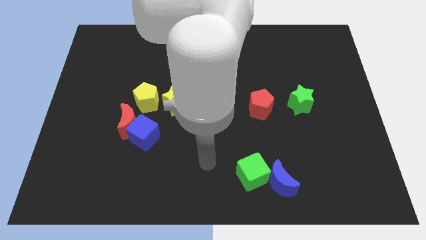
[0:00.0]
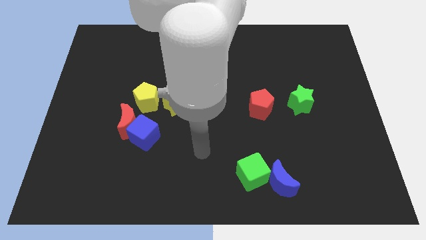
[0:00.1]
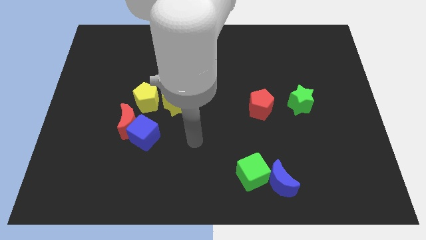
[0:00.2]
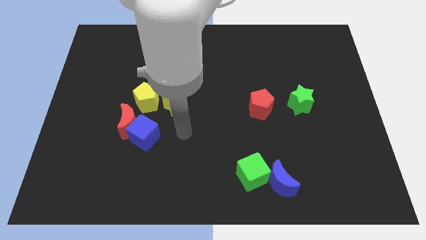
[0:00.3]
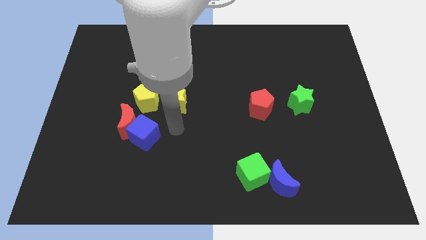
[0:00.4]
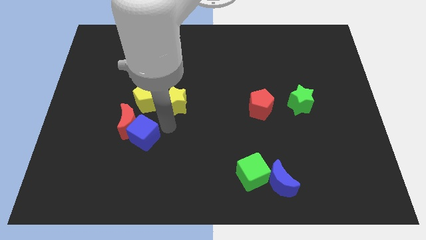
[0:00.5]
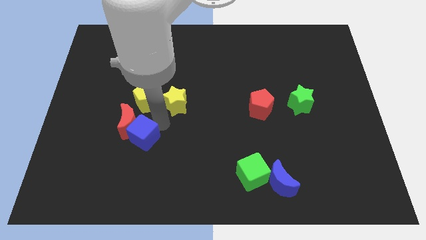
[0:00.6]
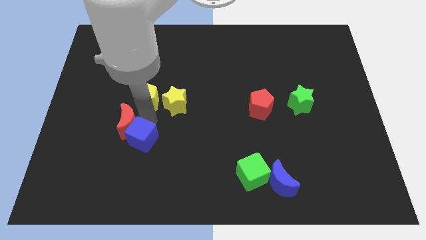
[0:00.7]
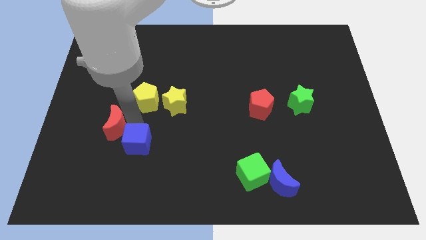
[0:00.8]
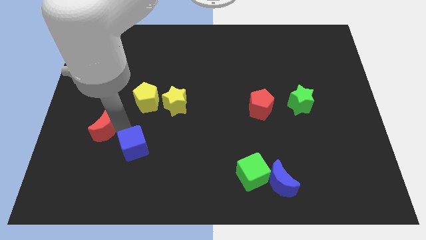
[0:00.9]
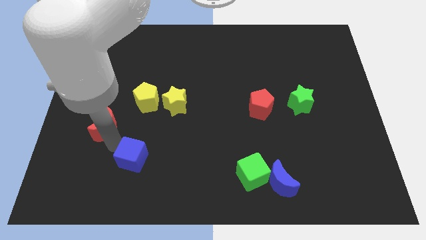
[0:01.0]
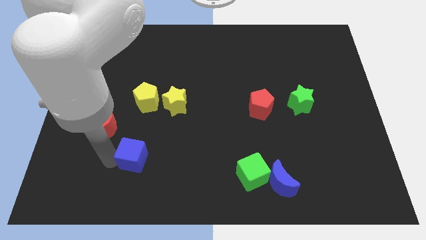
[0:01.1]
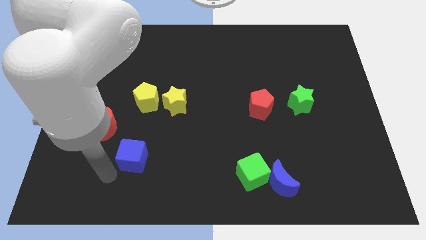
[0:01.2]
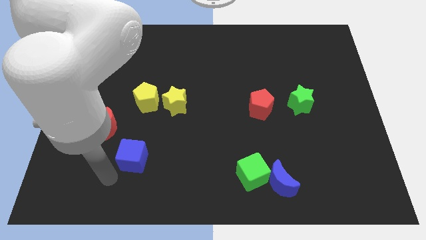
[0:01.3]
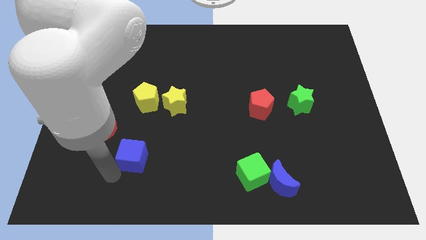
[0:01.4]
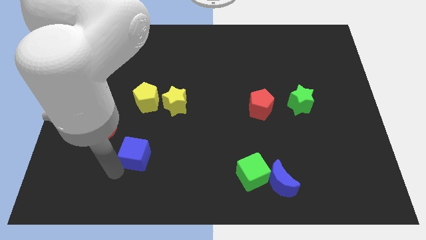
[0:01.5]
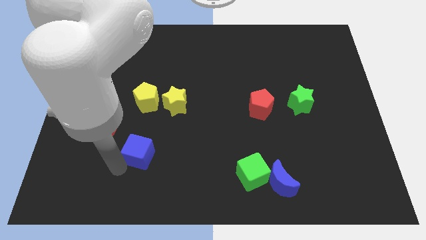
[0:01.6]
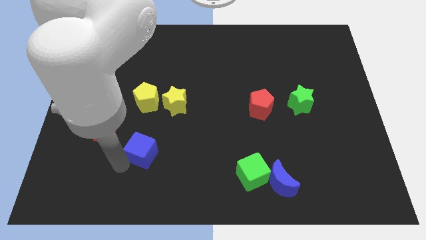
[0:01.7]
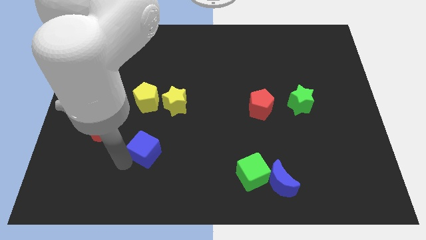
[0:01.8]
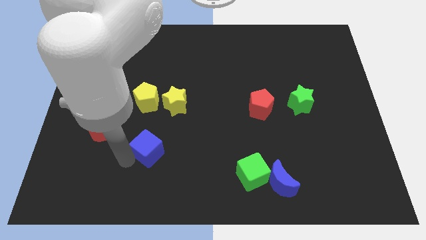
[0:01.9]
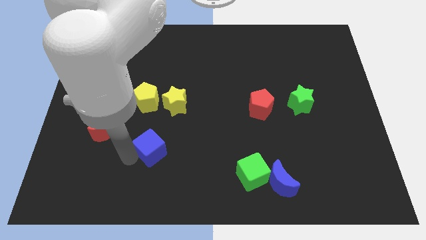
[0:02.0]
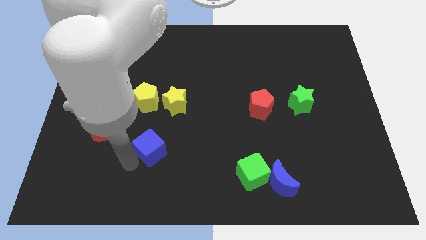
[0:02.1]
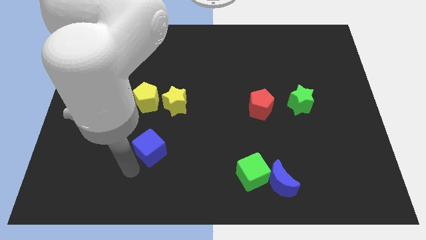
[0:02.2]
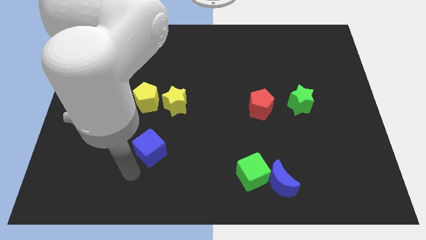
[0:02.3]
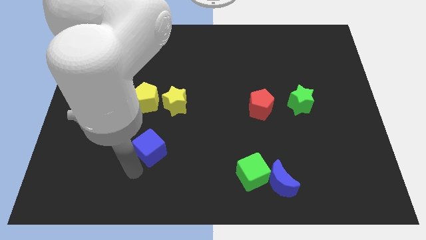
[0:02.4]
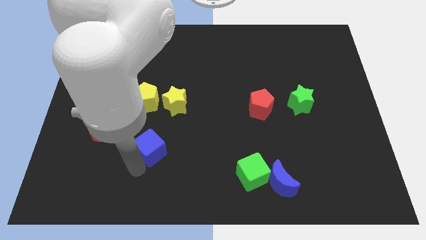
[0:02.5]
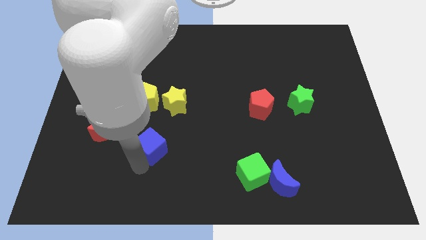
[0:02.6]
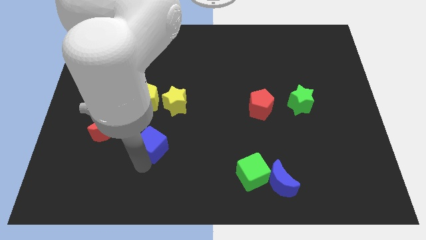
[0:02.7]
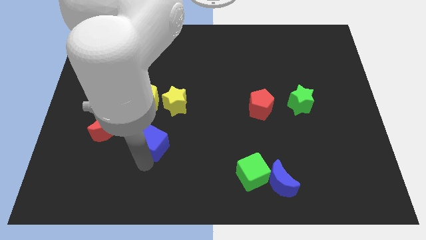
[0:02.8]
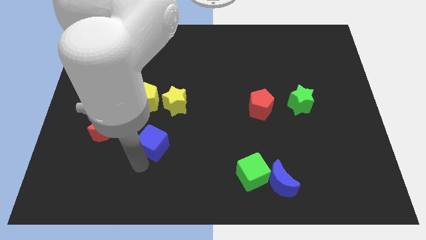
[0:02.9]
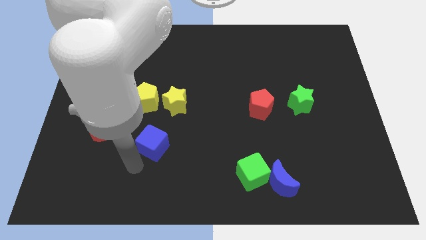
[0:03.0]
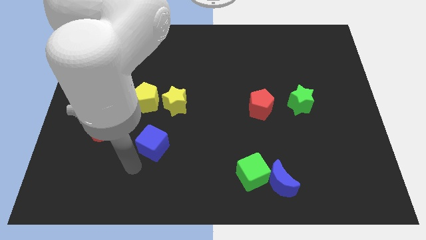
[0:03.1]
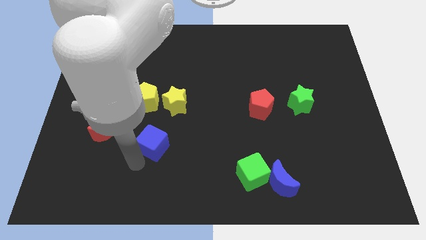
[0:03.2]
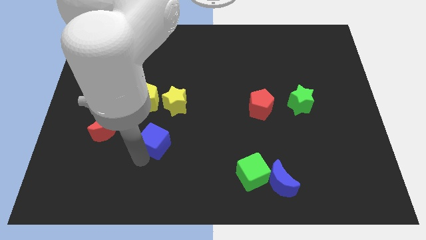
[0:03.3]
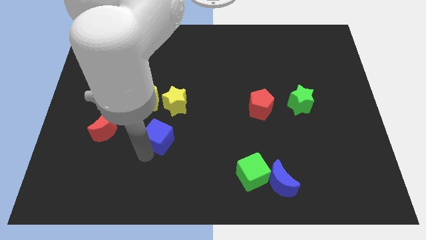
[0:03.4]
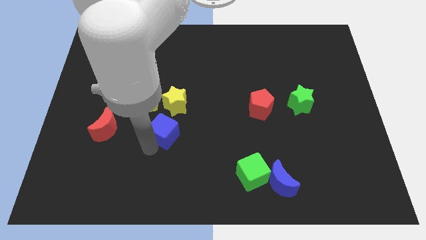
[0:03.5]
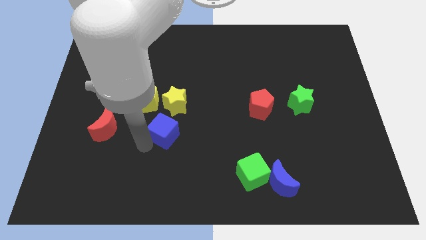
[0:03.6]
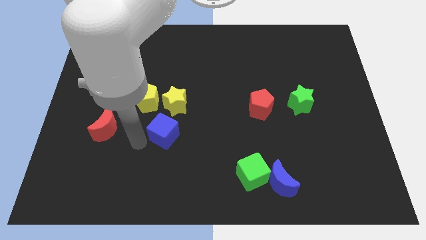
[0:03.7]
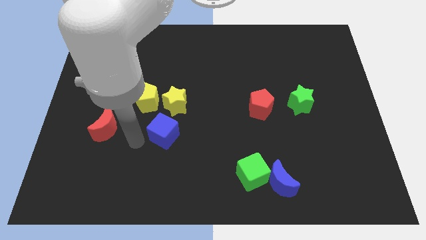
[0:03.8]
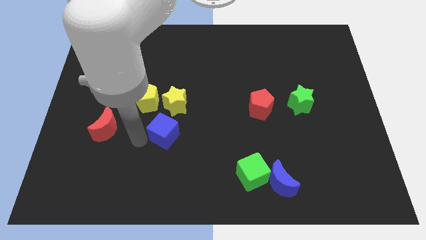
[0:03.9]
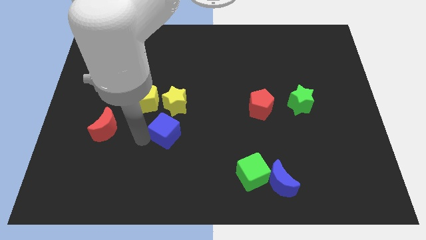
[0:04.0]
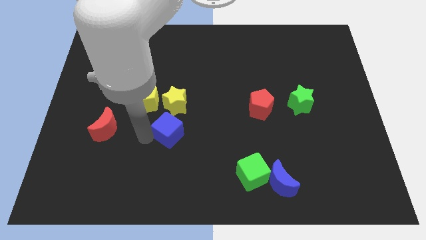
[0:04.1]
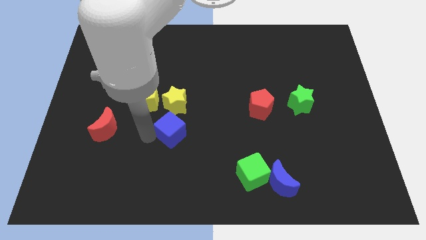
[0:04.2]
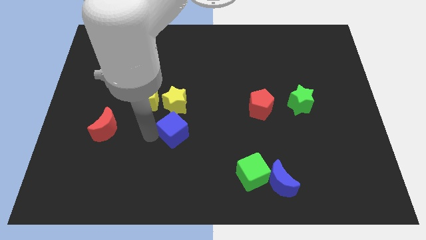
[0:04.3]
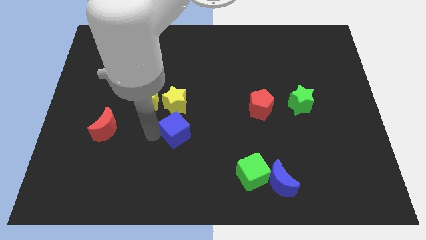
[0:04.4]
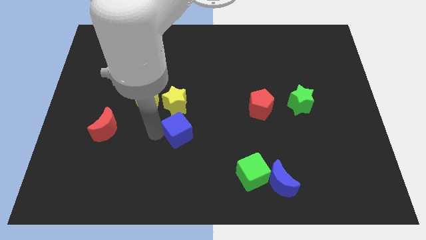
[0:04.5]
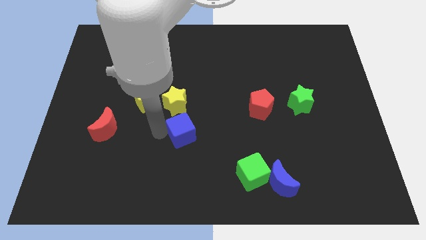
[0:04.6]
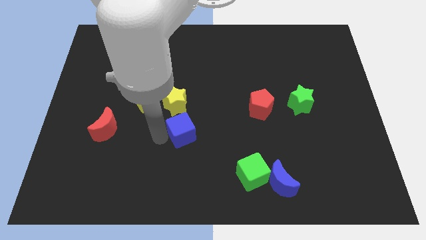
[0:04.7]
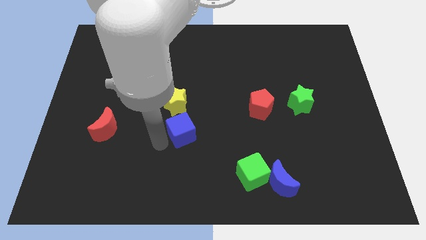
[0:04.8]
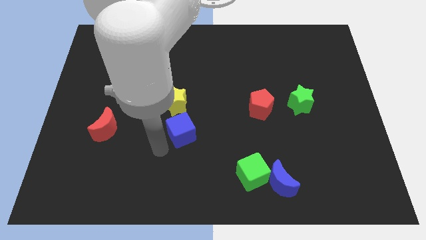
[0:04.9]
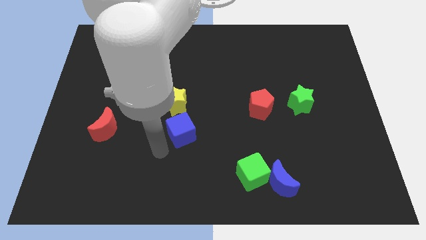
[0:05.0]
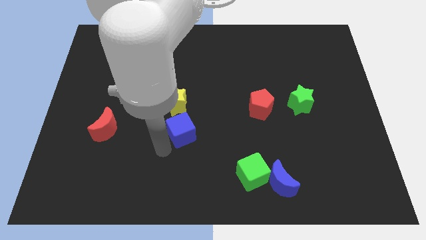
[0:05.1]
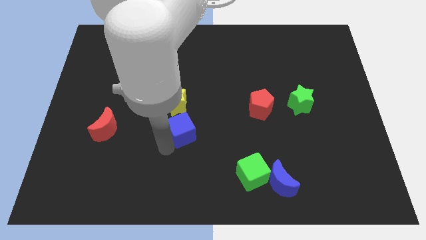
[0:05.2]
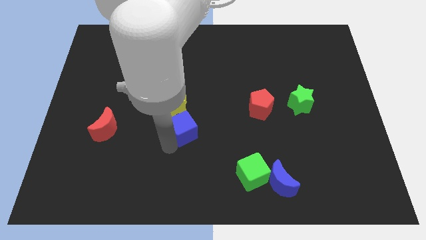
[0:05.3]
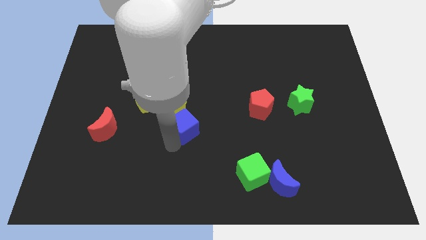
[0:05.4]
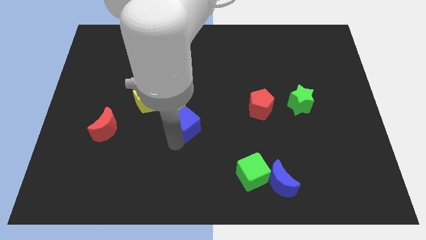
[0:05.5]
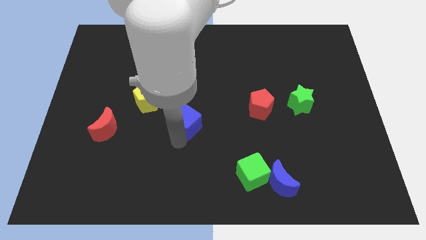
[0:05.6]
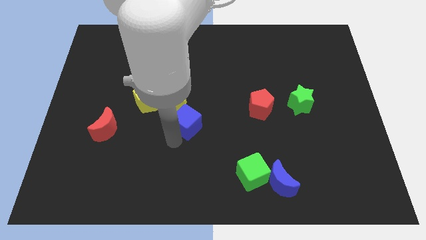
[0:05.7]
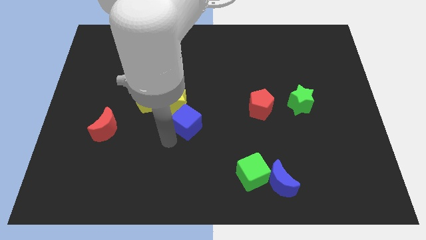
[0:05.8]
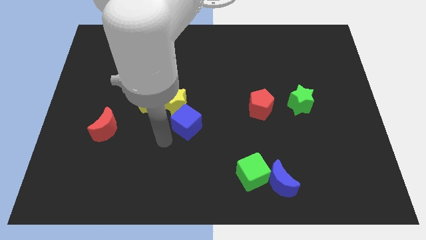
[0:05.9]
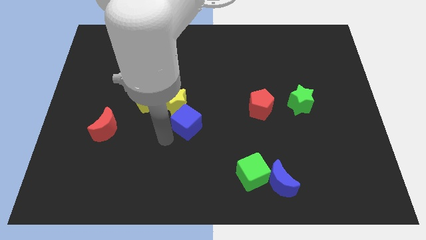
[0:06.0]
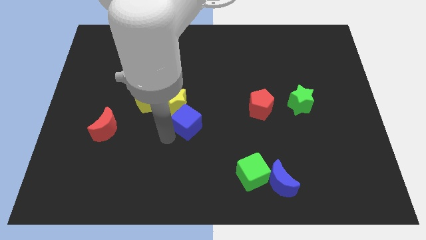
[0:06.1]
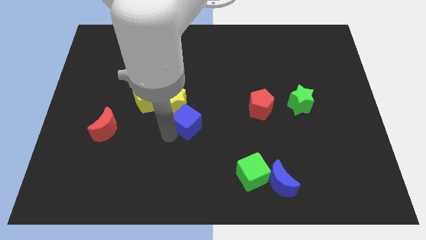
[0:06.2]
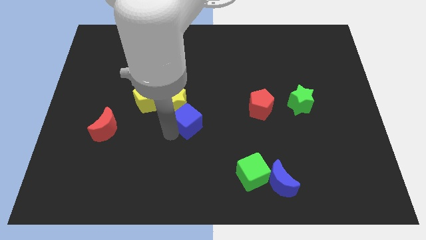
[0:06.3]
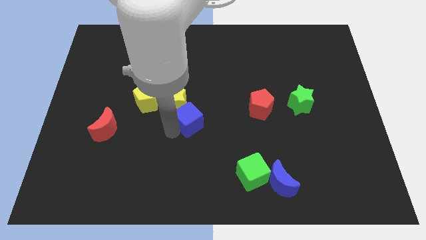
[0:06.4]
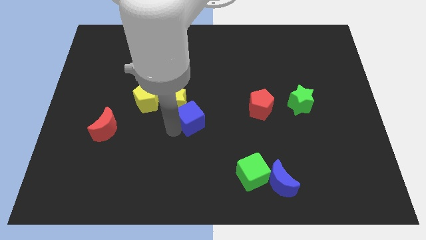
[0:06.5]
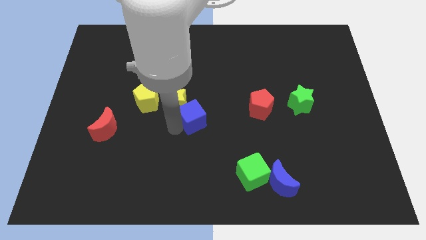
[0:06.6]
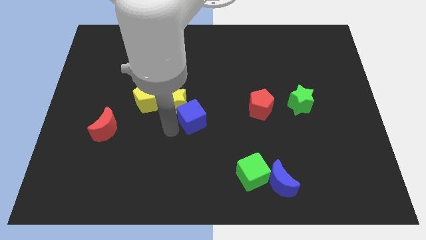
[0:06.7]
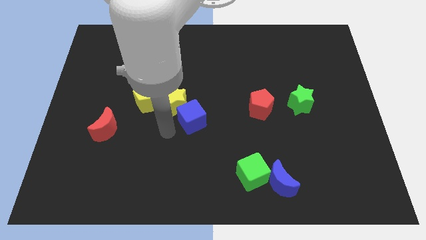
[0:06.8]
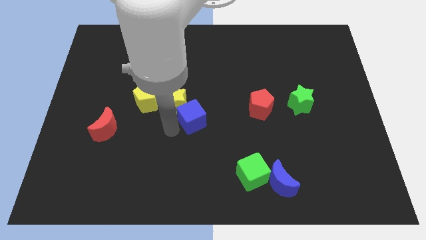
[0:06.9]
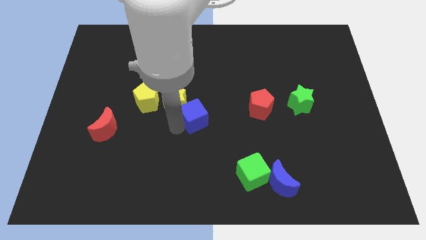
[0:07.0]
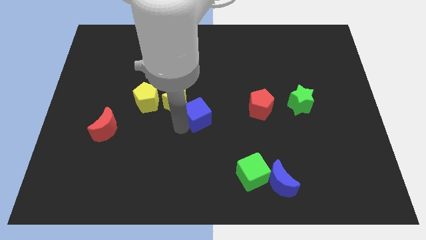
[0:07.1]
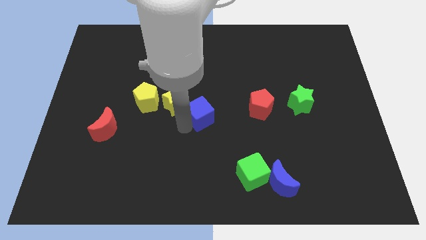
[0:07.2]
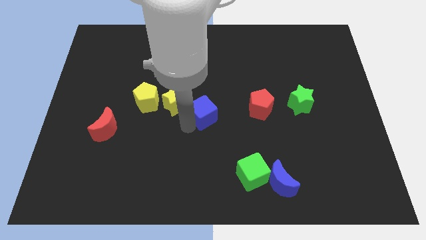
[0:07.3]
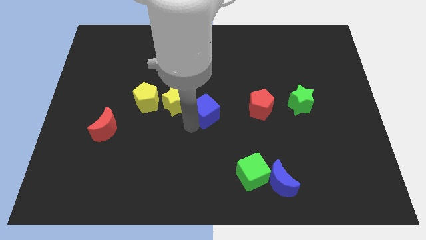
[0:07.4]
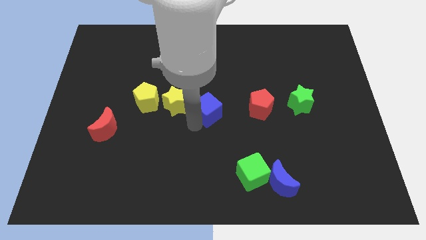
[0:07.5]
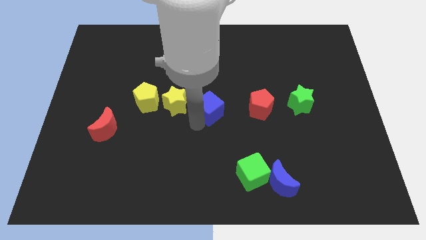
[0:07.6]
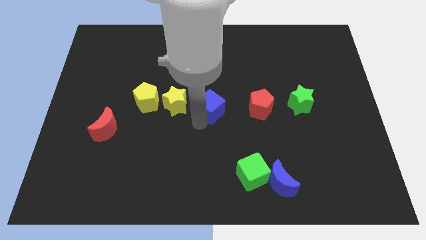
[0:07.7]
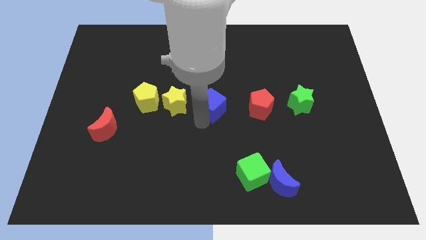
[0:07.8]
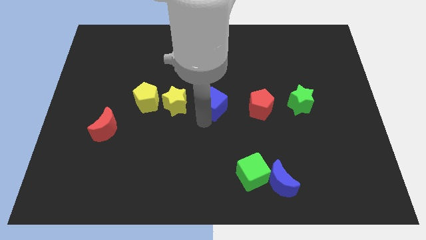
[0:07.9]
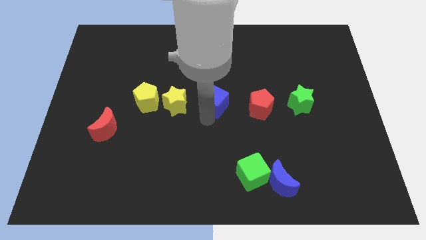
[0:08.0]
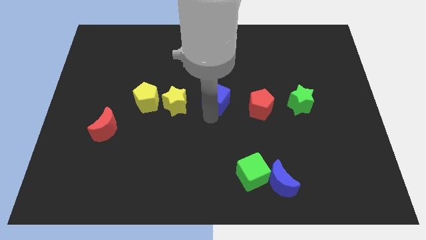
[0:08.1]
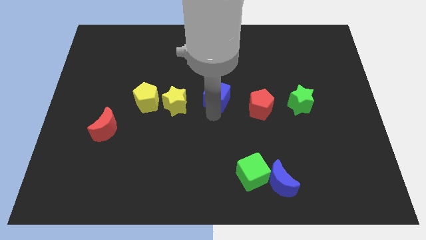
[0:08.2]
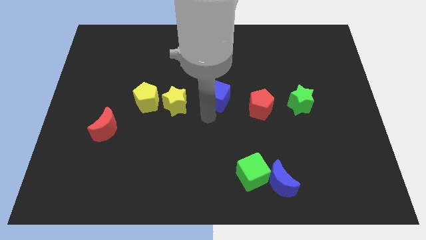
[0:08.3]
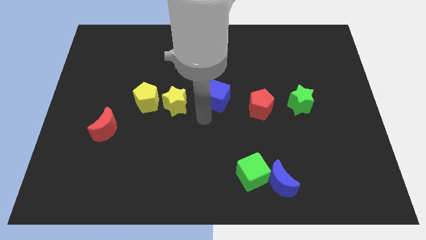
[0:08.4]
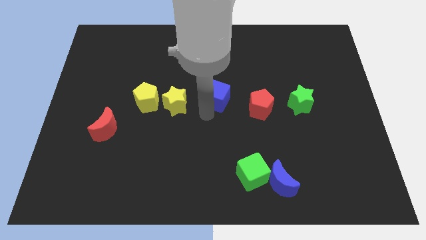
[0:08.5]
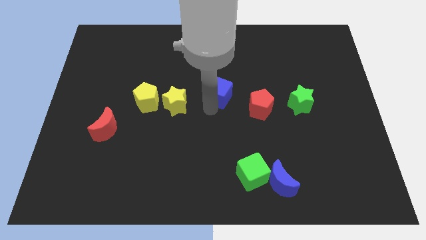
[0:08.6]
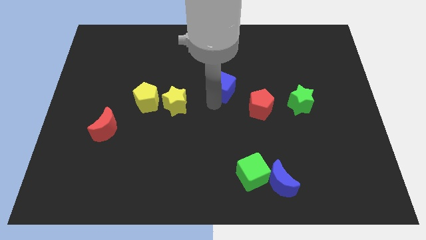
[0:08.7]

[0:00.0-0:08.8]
push the blue cube upwards and to the right
